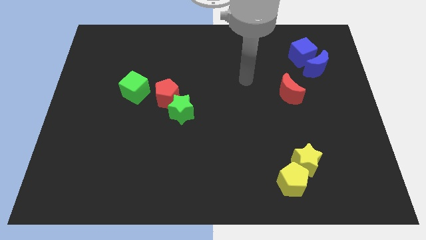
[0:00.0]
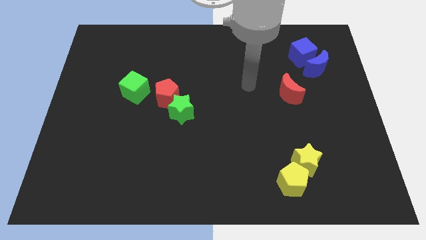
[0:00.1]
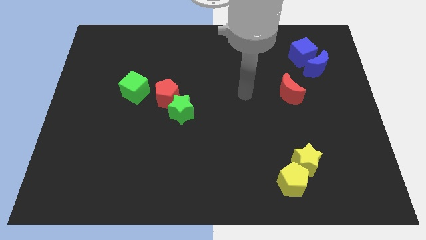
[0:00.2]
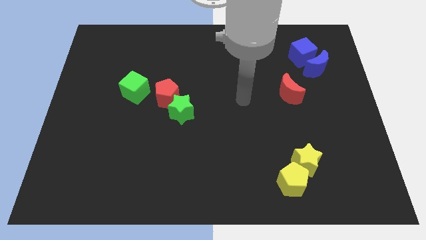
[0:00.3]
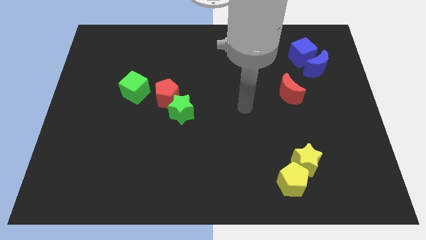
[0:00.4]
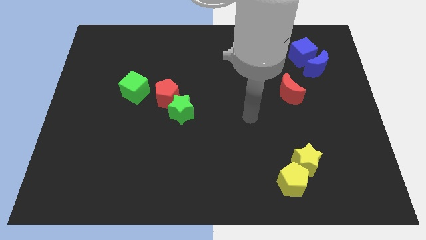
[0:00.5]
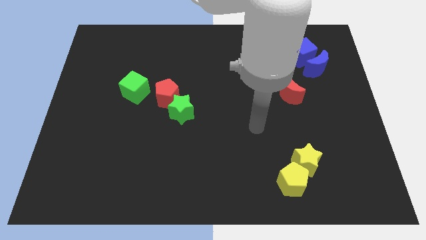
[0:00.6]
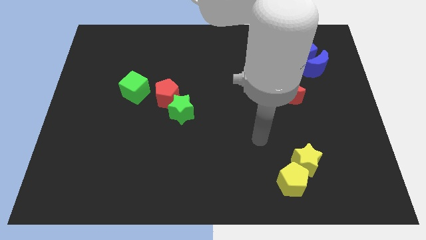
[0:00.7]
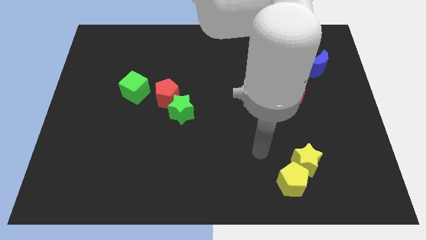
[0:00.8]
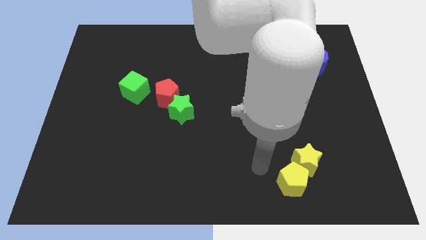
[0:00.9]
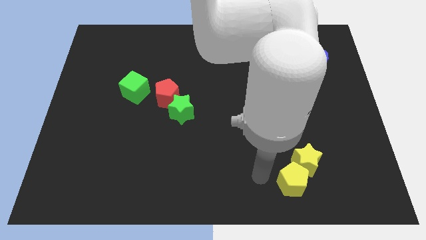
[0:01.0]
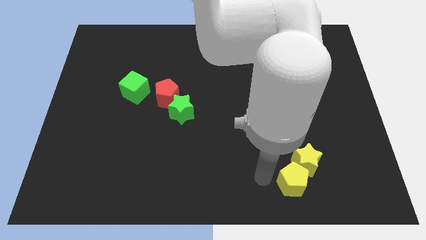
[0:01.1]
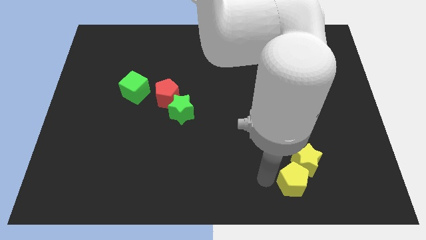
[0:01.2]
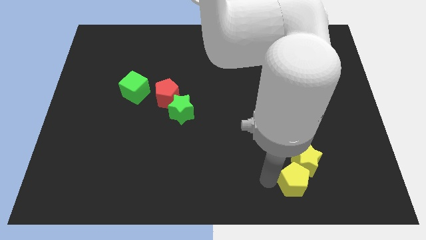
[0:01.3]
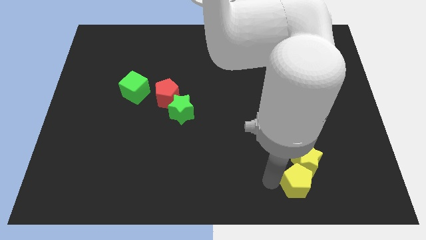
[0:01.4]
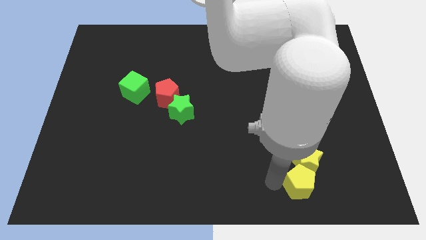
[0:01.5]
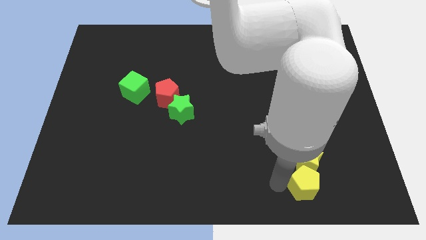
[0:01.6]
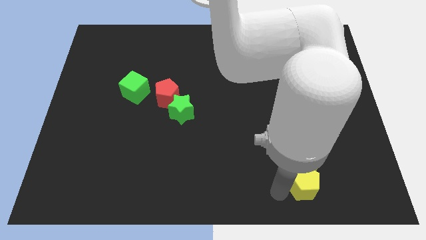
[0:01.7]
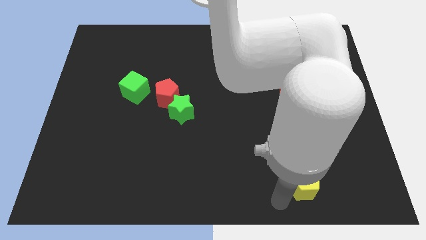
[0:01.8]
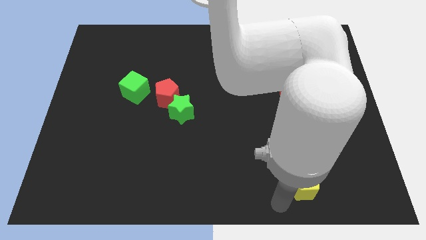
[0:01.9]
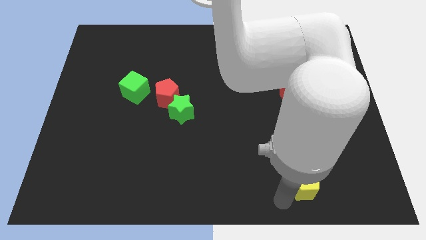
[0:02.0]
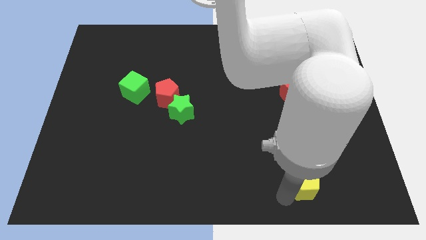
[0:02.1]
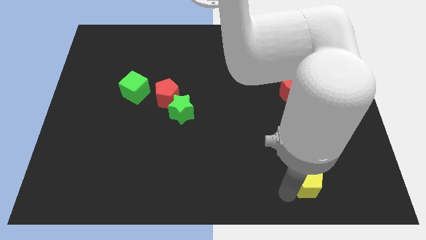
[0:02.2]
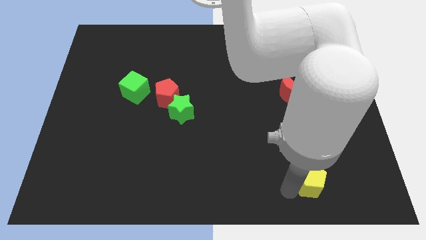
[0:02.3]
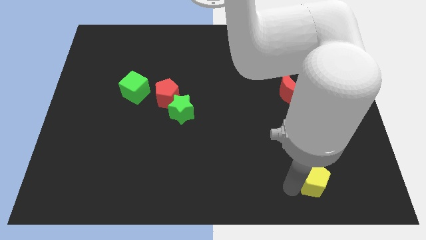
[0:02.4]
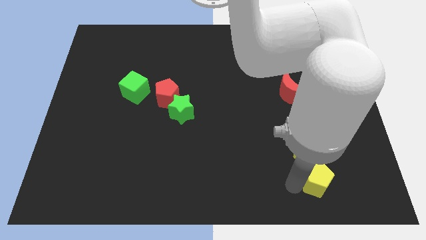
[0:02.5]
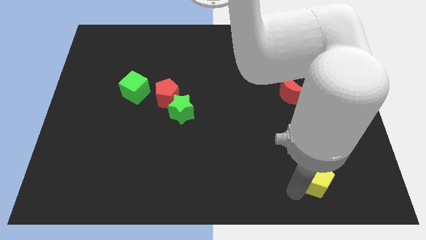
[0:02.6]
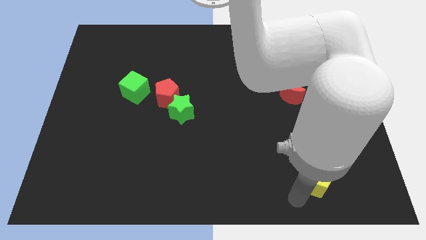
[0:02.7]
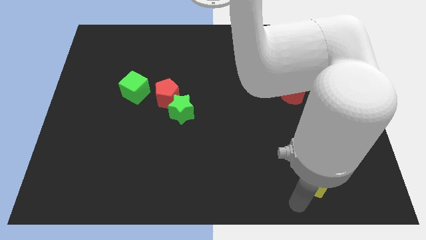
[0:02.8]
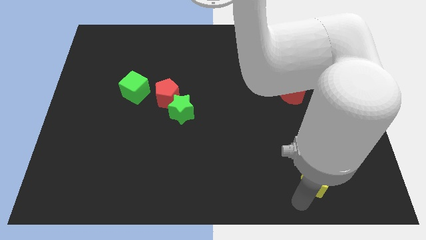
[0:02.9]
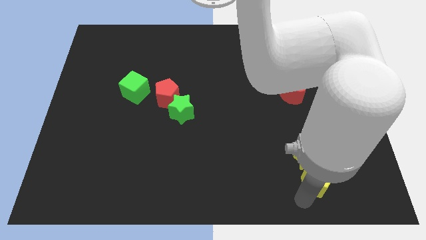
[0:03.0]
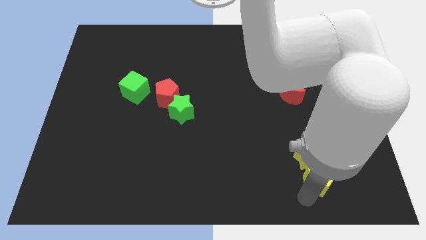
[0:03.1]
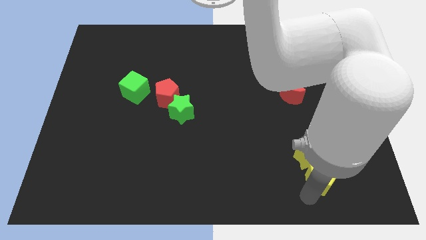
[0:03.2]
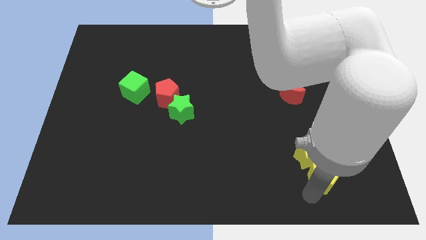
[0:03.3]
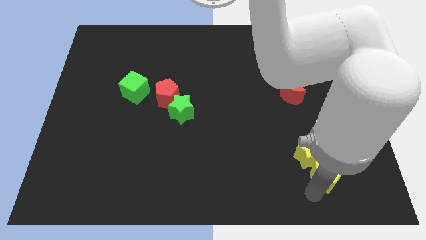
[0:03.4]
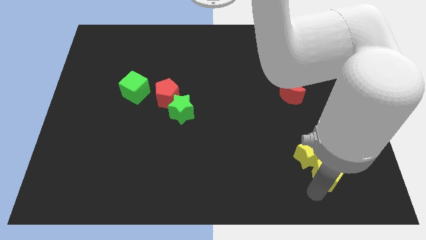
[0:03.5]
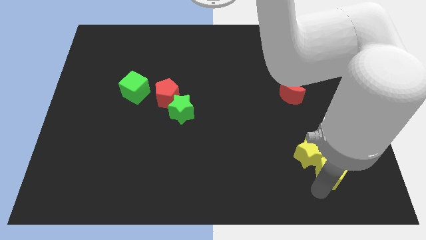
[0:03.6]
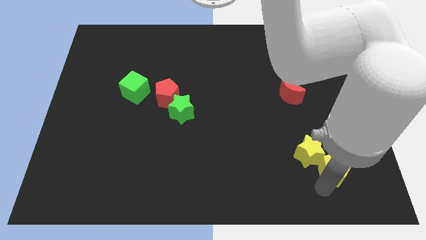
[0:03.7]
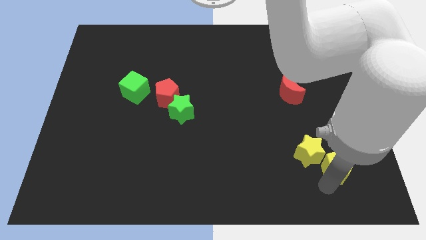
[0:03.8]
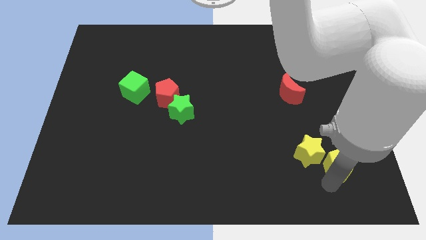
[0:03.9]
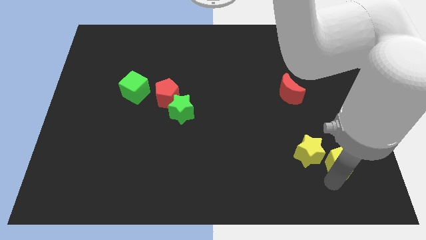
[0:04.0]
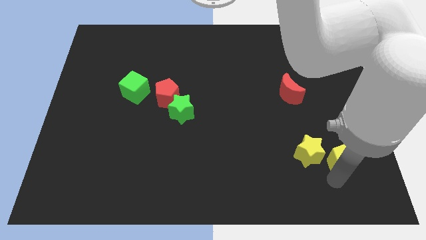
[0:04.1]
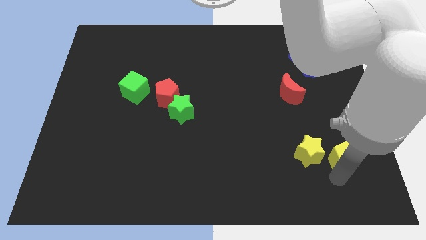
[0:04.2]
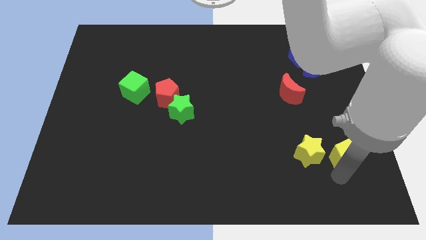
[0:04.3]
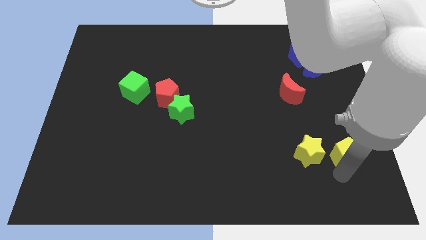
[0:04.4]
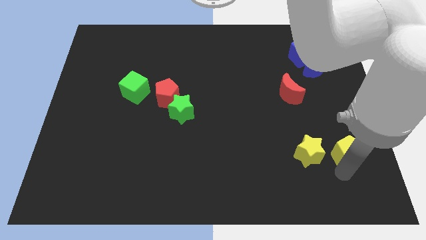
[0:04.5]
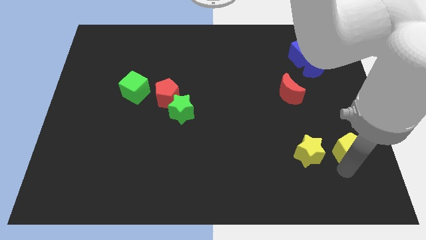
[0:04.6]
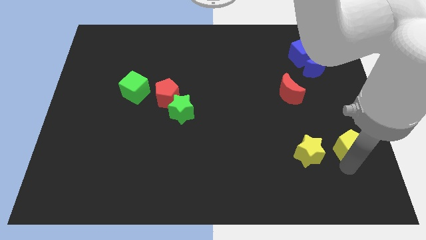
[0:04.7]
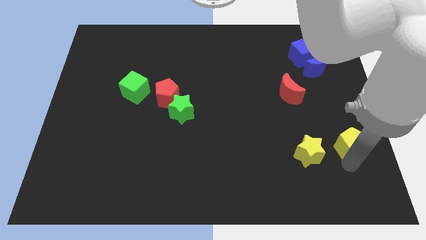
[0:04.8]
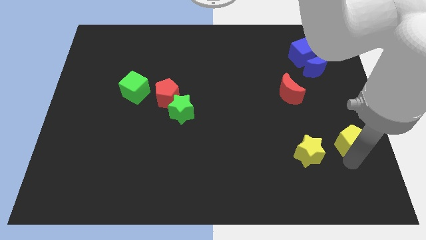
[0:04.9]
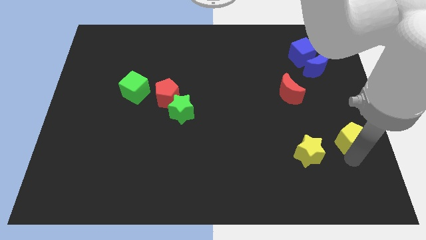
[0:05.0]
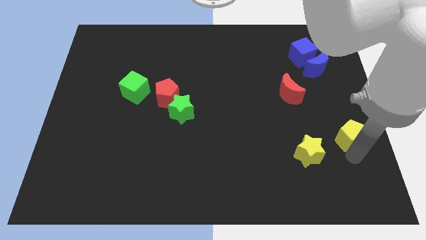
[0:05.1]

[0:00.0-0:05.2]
move the yellow pentagon to the right side of the board

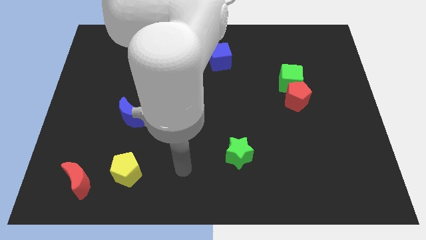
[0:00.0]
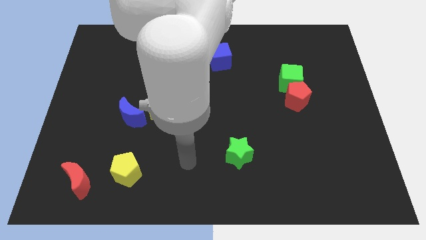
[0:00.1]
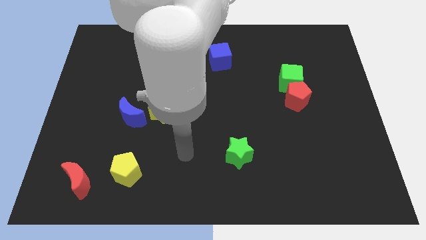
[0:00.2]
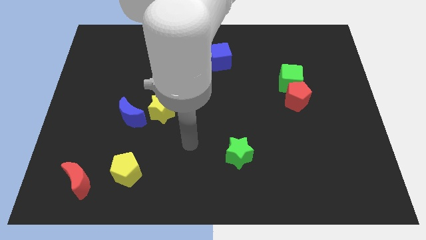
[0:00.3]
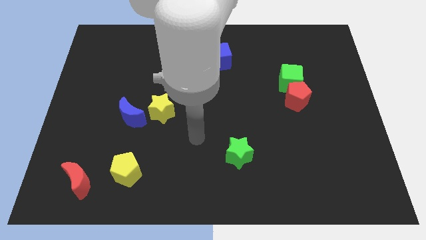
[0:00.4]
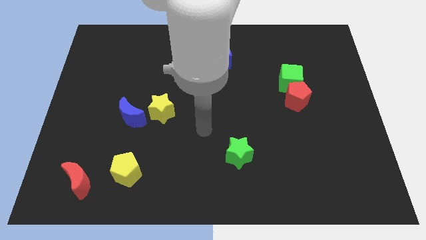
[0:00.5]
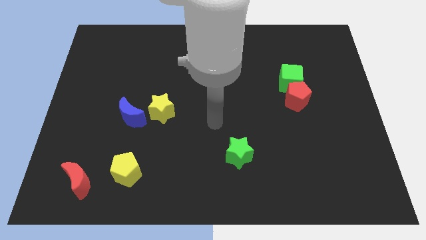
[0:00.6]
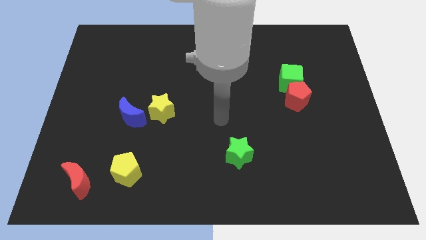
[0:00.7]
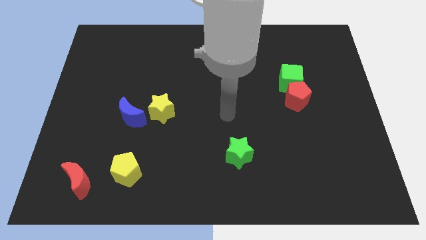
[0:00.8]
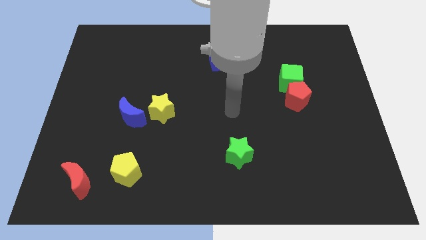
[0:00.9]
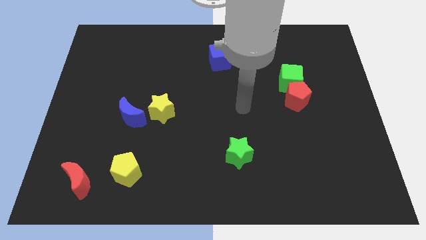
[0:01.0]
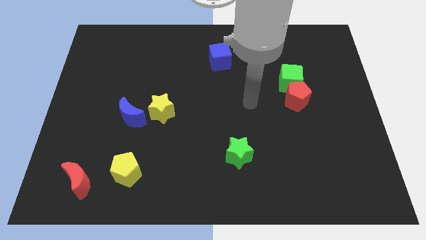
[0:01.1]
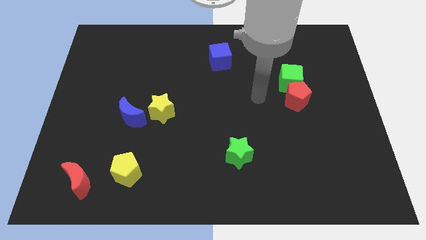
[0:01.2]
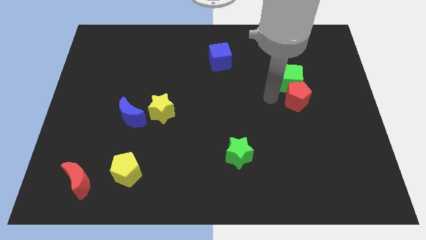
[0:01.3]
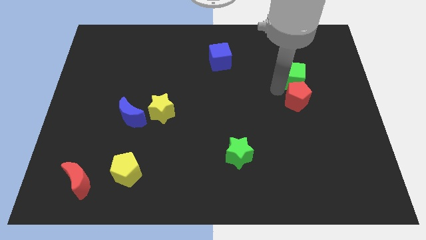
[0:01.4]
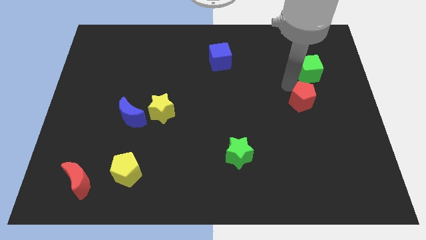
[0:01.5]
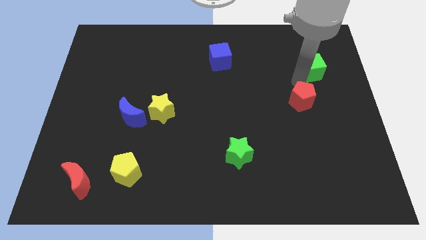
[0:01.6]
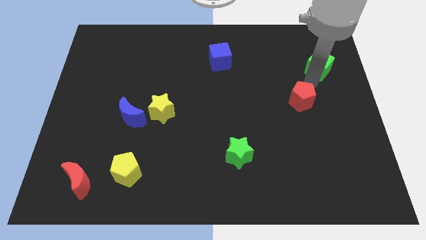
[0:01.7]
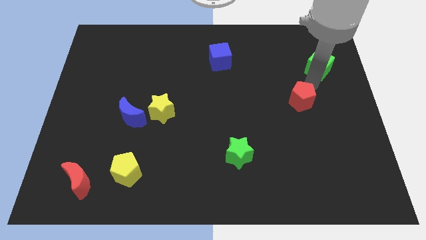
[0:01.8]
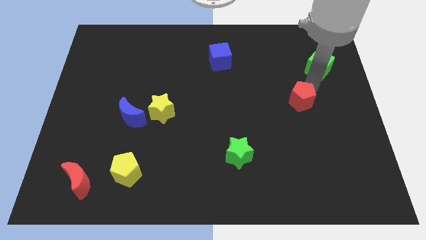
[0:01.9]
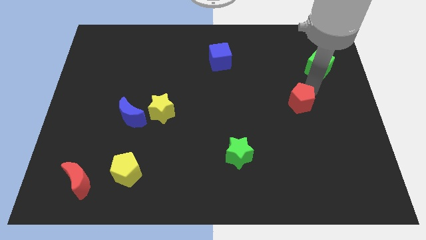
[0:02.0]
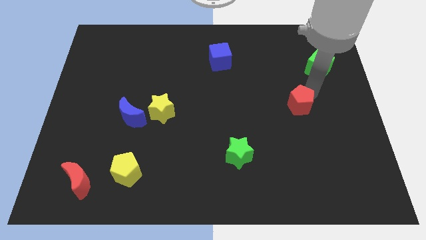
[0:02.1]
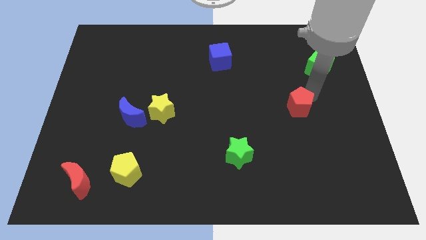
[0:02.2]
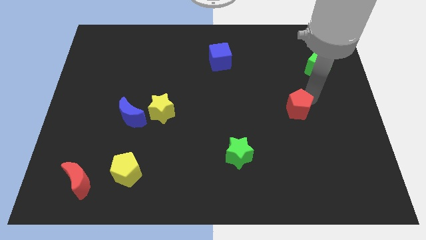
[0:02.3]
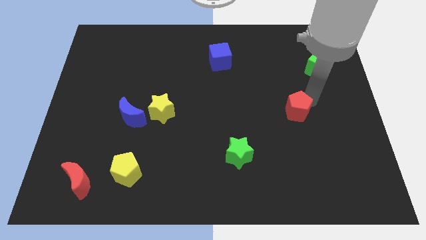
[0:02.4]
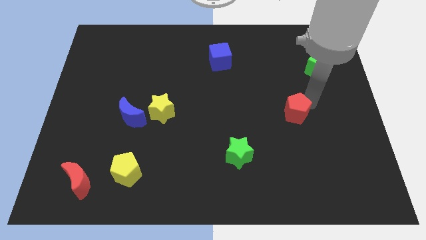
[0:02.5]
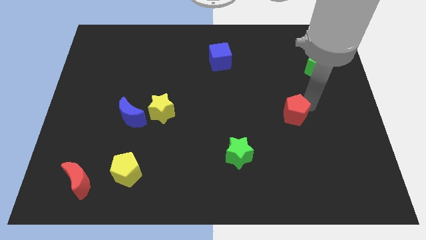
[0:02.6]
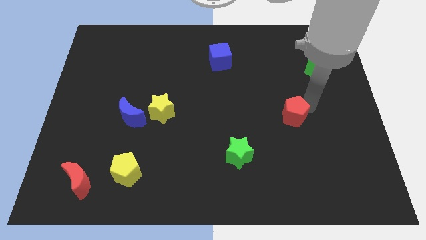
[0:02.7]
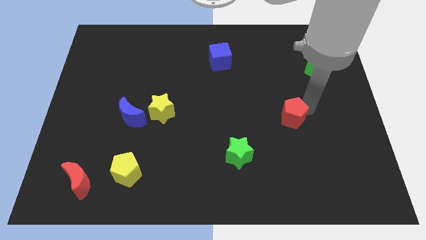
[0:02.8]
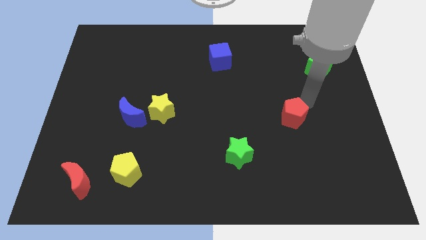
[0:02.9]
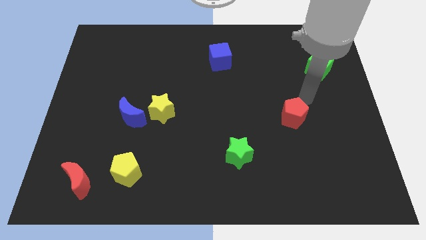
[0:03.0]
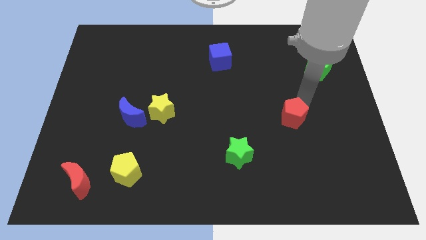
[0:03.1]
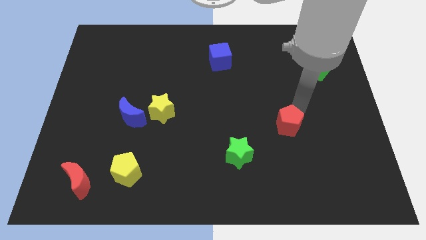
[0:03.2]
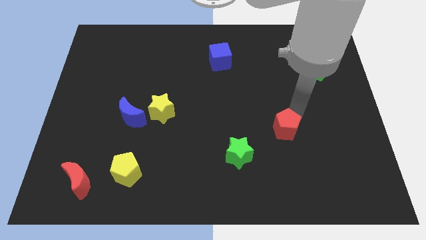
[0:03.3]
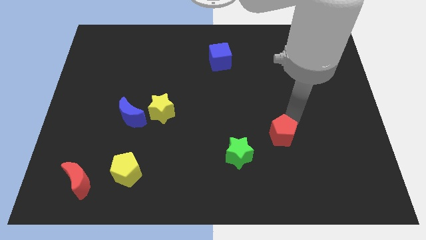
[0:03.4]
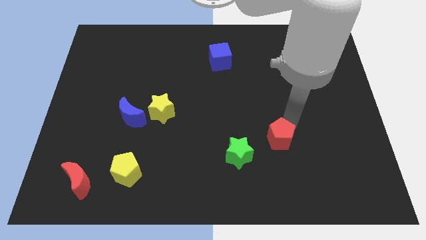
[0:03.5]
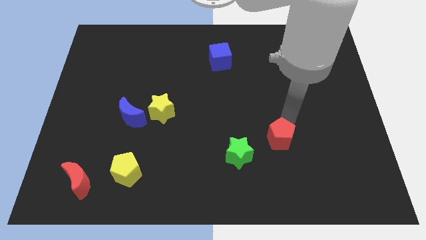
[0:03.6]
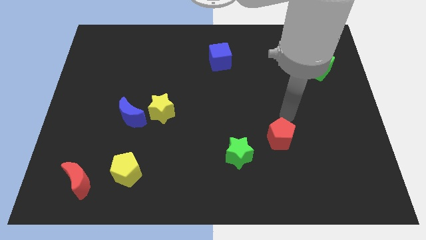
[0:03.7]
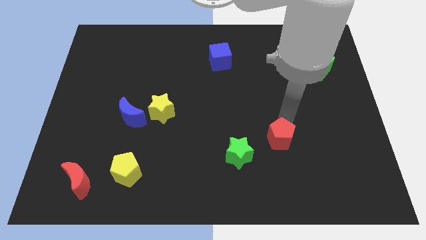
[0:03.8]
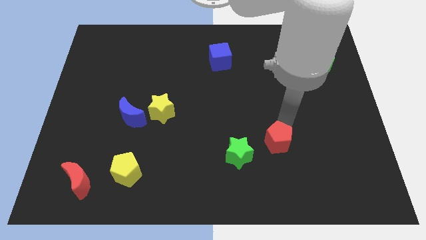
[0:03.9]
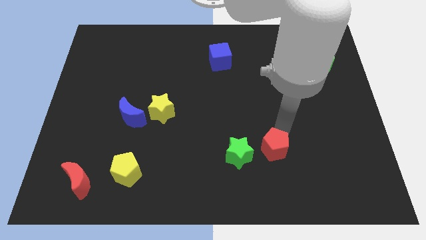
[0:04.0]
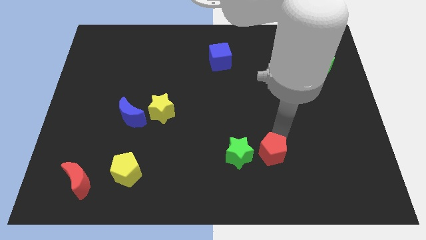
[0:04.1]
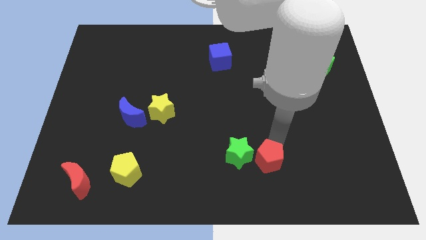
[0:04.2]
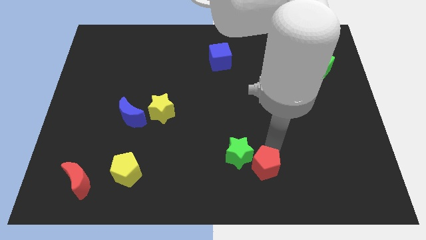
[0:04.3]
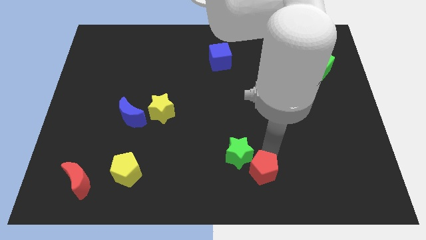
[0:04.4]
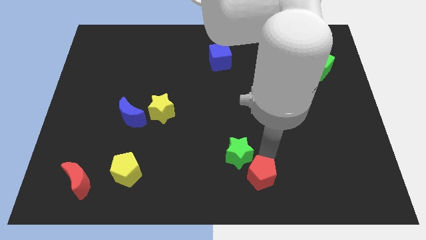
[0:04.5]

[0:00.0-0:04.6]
slide the red pentagon to the bottom
